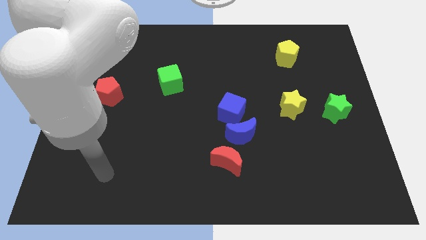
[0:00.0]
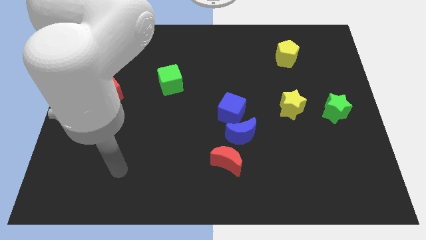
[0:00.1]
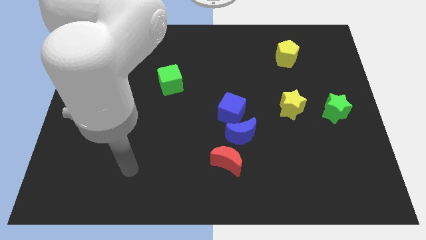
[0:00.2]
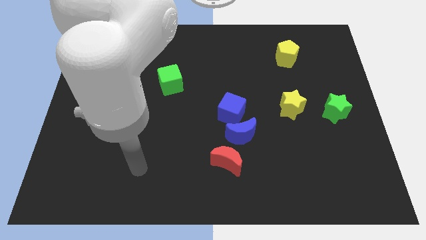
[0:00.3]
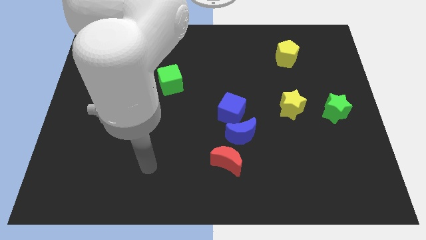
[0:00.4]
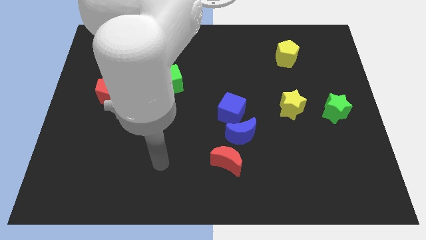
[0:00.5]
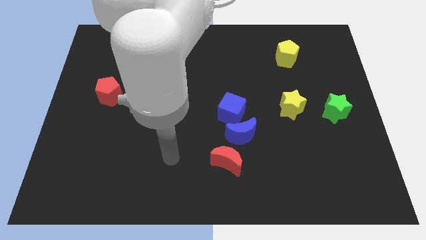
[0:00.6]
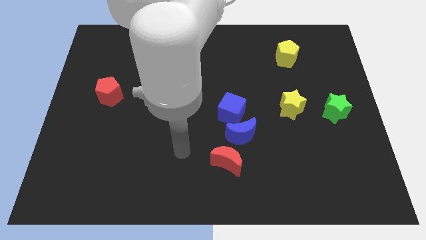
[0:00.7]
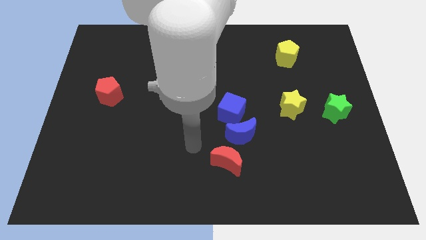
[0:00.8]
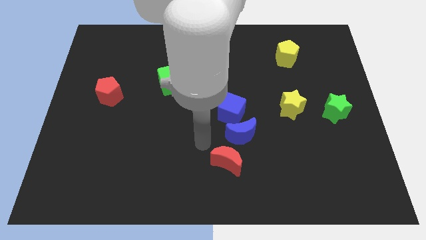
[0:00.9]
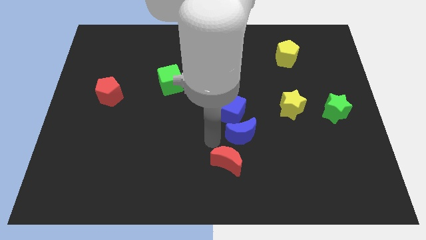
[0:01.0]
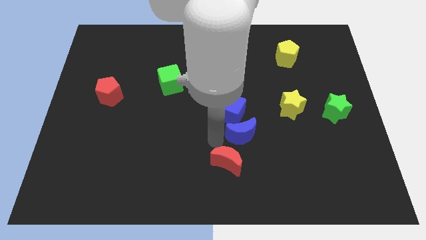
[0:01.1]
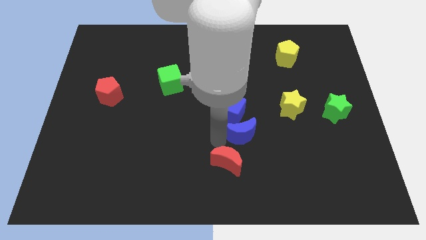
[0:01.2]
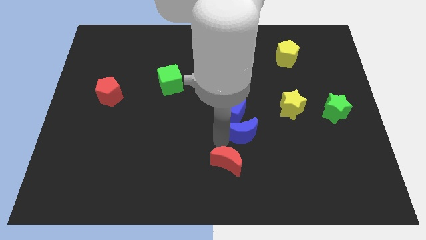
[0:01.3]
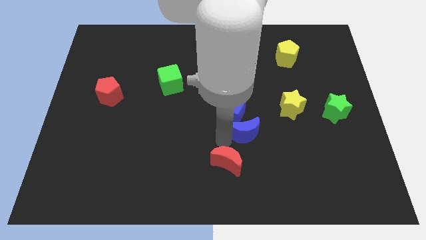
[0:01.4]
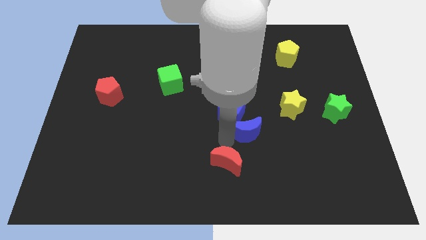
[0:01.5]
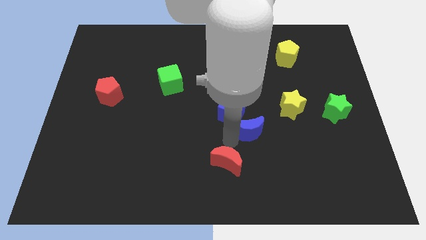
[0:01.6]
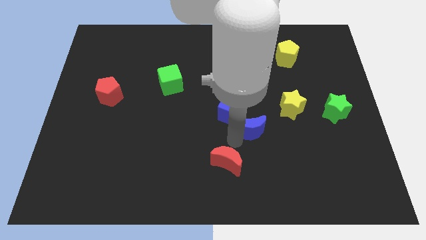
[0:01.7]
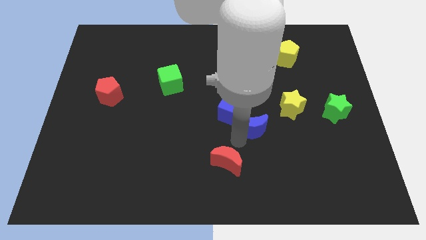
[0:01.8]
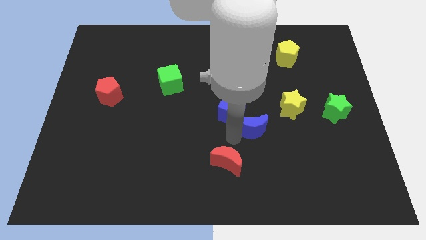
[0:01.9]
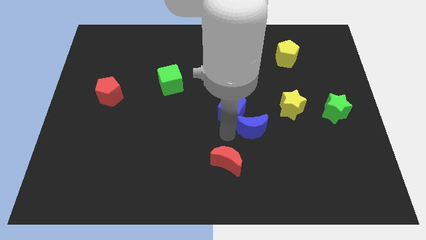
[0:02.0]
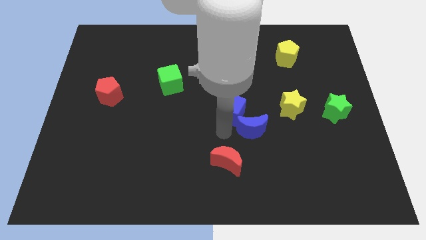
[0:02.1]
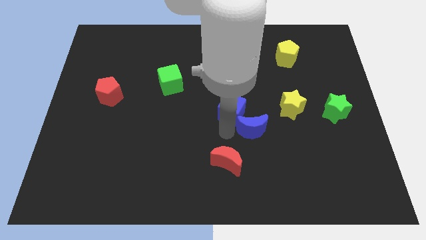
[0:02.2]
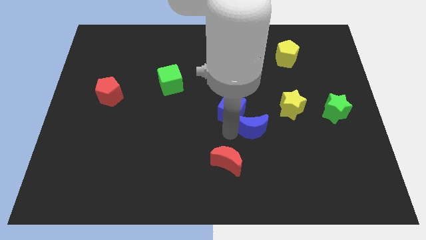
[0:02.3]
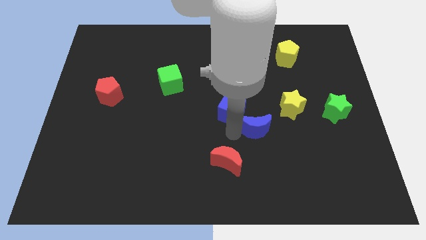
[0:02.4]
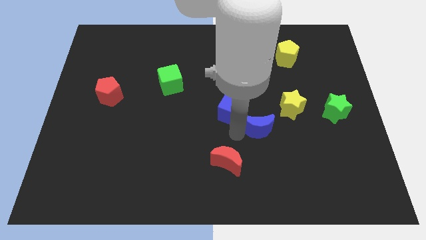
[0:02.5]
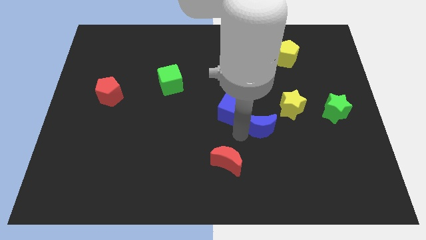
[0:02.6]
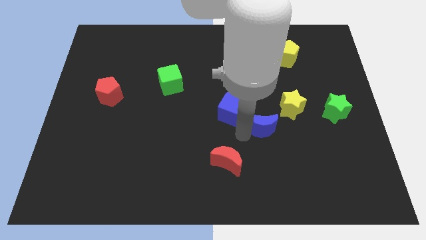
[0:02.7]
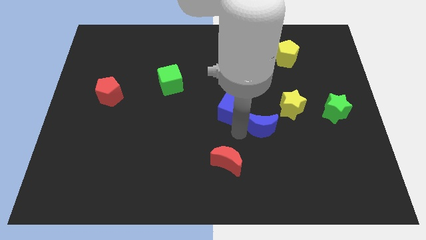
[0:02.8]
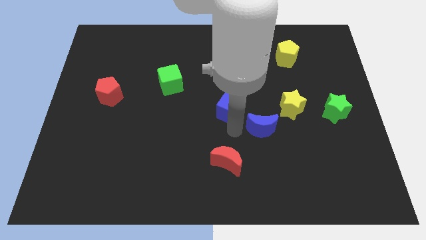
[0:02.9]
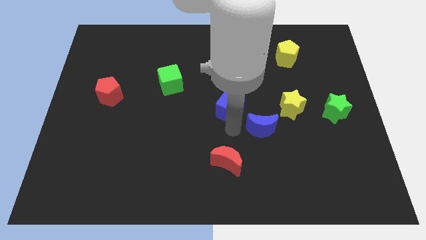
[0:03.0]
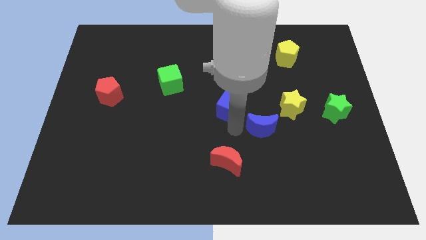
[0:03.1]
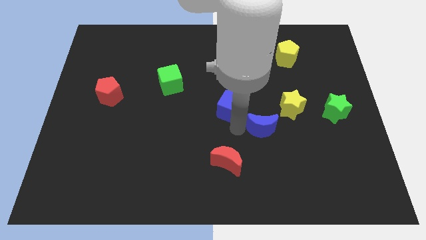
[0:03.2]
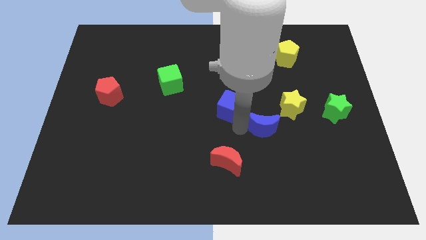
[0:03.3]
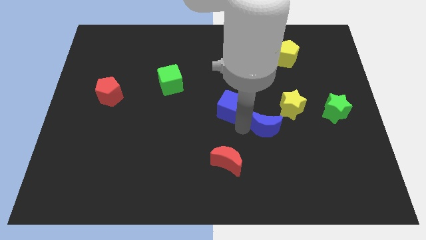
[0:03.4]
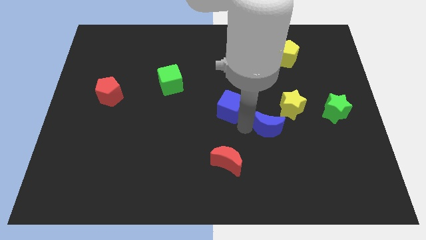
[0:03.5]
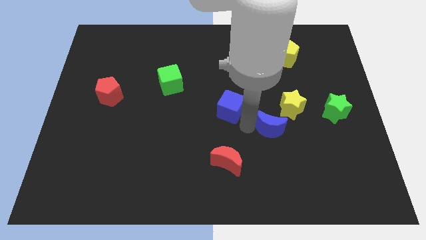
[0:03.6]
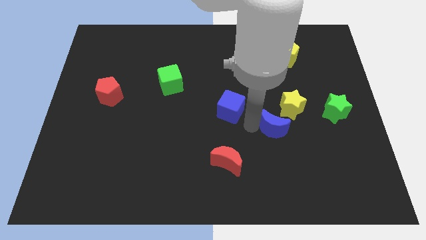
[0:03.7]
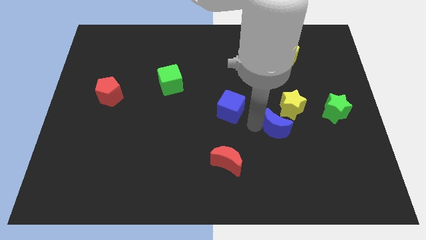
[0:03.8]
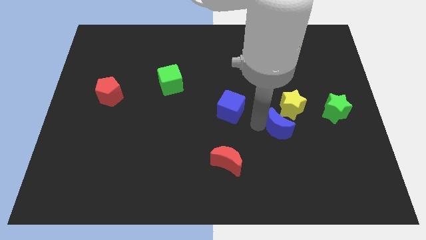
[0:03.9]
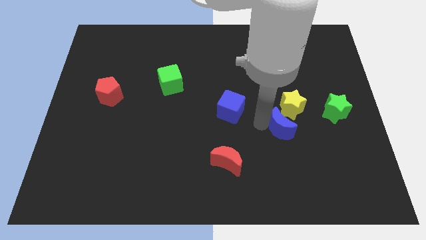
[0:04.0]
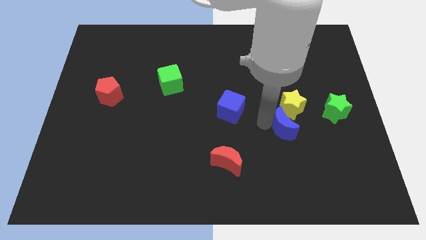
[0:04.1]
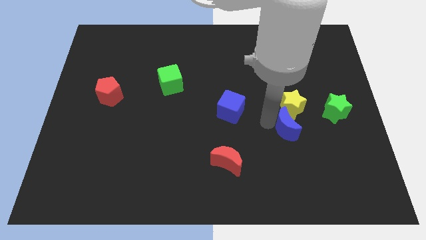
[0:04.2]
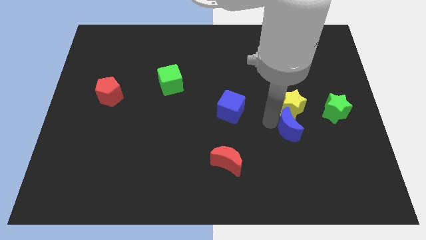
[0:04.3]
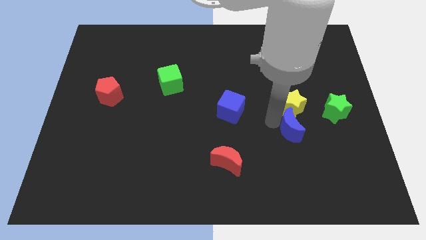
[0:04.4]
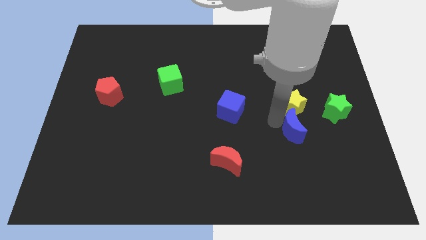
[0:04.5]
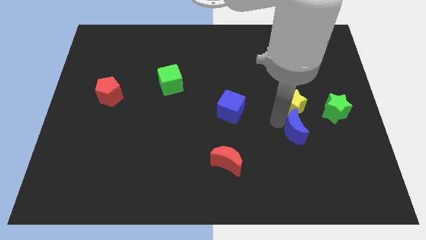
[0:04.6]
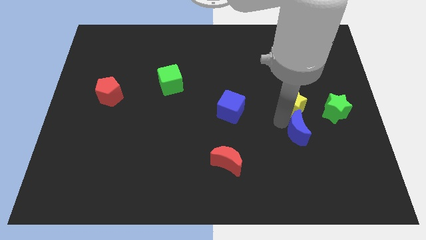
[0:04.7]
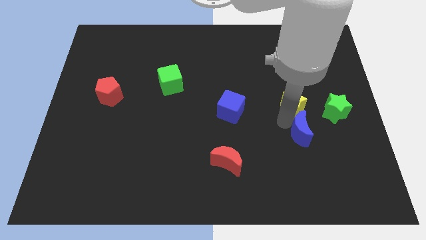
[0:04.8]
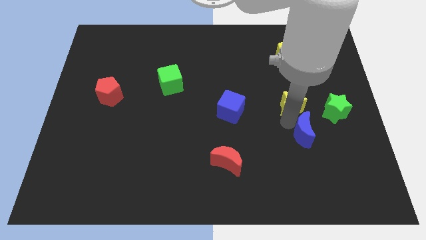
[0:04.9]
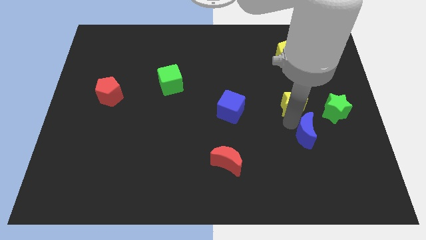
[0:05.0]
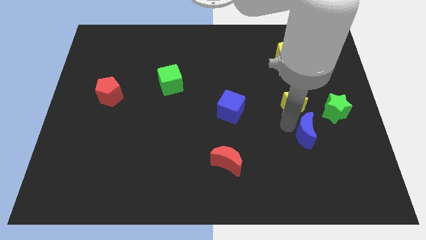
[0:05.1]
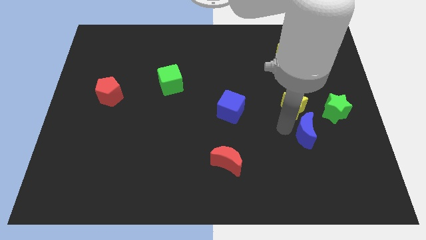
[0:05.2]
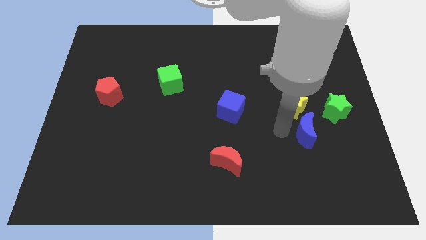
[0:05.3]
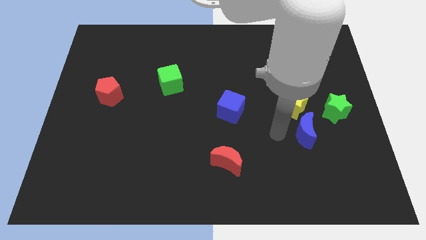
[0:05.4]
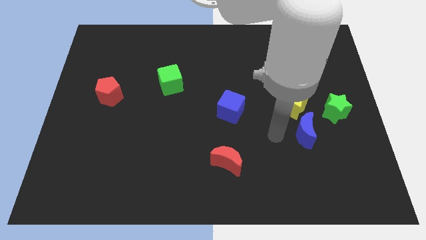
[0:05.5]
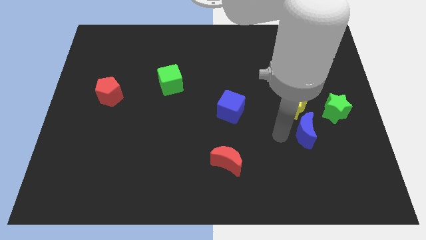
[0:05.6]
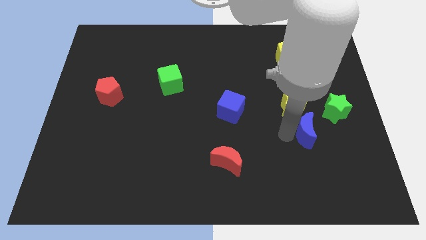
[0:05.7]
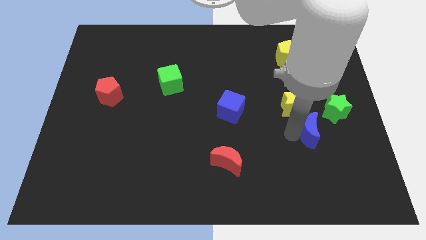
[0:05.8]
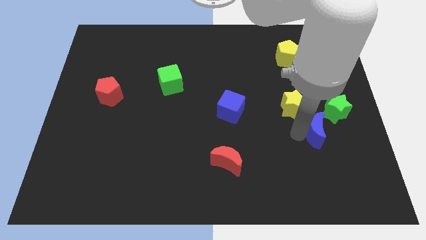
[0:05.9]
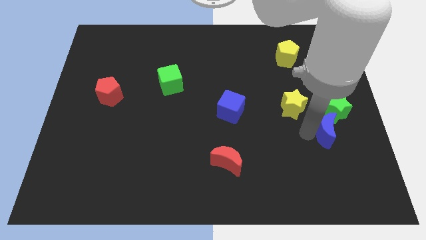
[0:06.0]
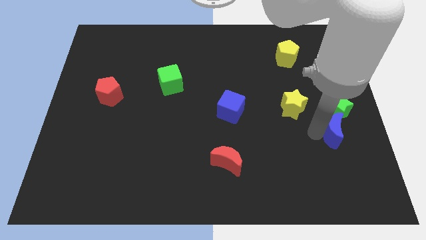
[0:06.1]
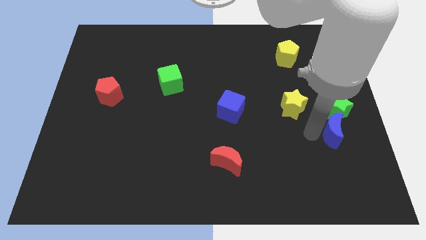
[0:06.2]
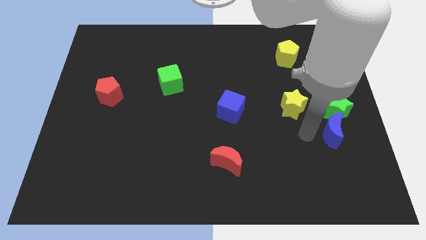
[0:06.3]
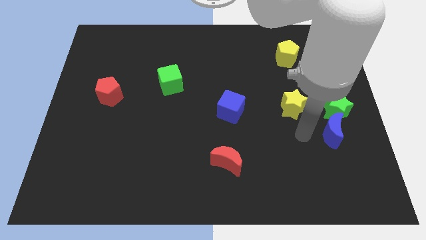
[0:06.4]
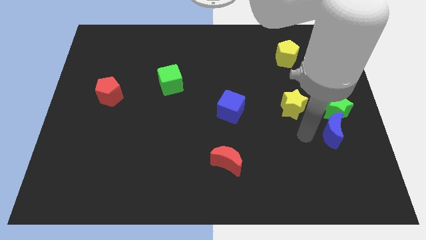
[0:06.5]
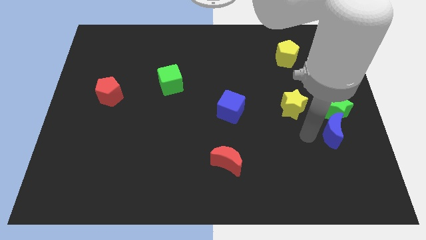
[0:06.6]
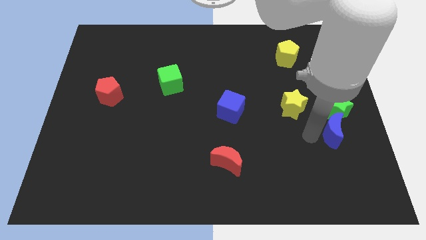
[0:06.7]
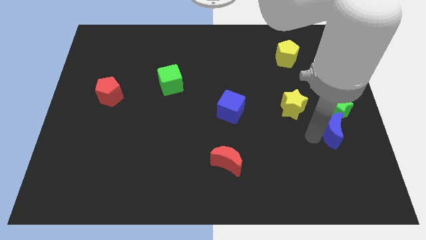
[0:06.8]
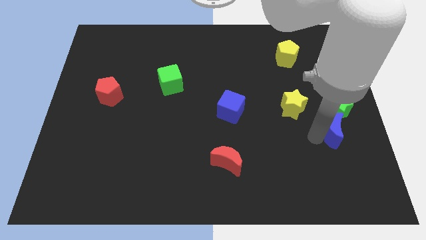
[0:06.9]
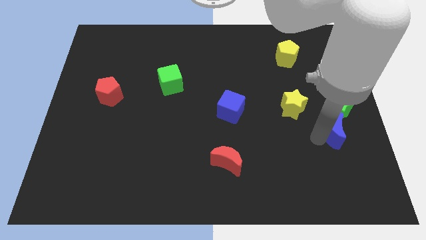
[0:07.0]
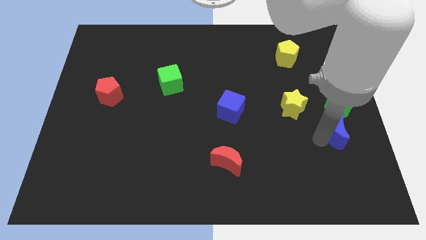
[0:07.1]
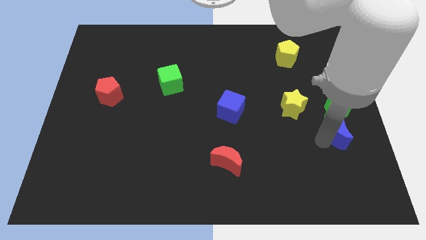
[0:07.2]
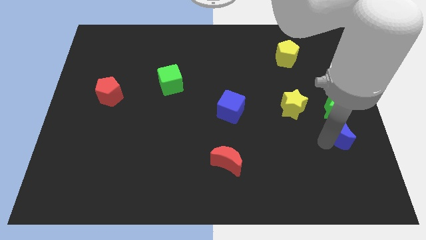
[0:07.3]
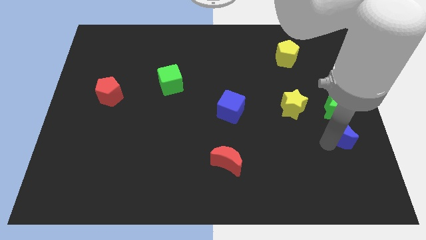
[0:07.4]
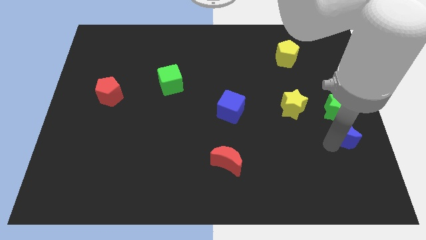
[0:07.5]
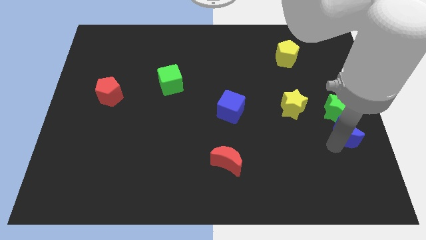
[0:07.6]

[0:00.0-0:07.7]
put the blue moon to the right side of the board

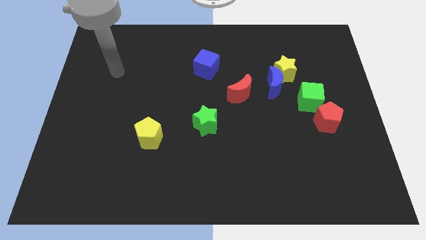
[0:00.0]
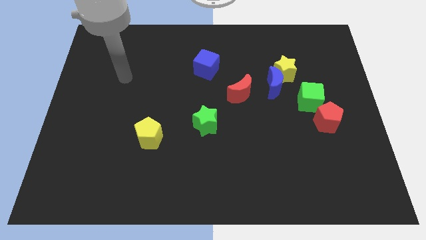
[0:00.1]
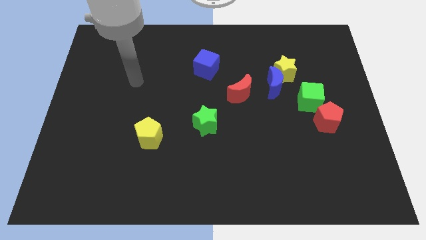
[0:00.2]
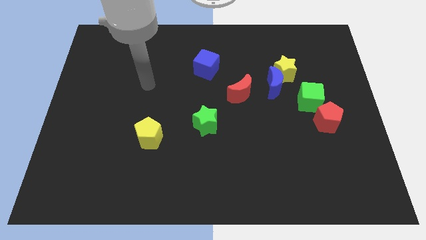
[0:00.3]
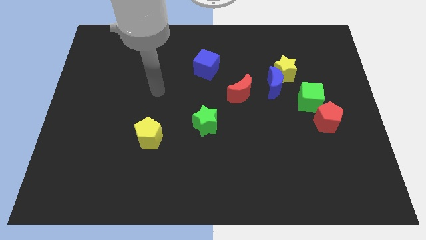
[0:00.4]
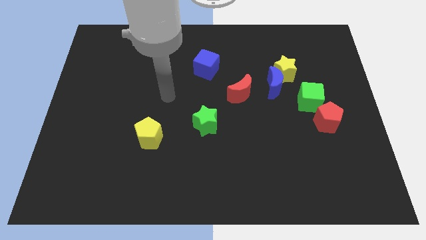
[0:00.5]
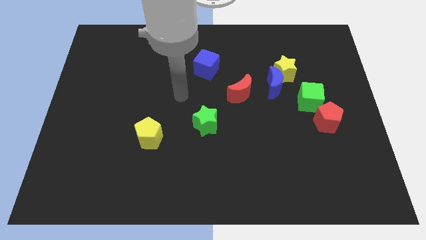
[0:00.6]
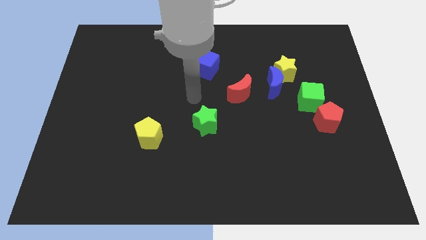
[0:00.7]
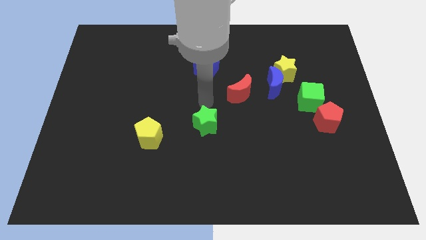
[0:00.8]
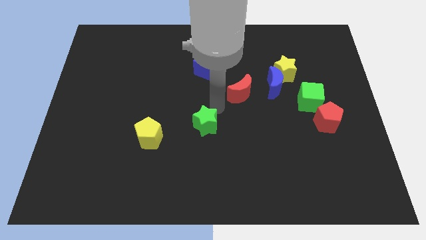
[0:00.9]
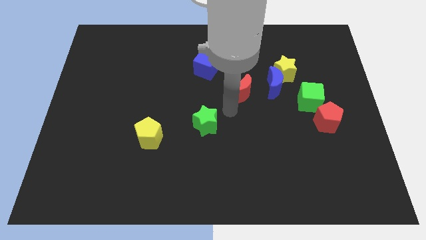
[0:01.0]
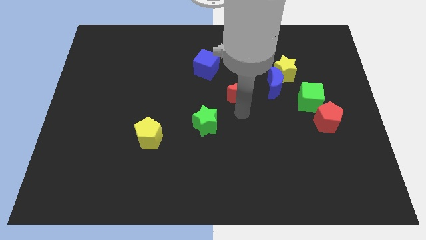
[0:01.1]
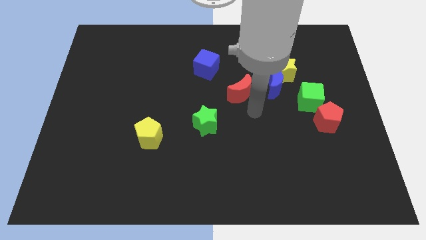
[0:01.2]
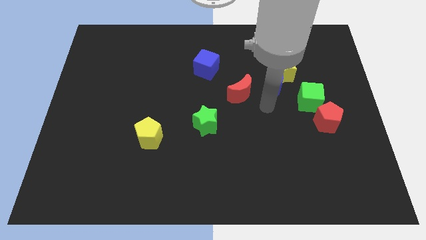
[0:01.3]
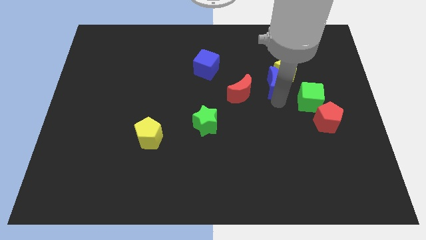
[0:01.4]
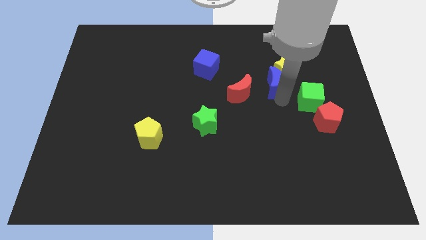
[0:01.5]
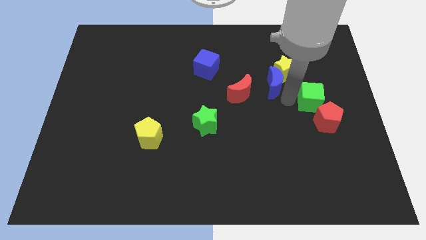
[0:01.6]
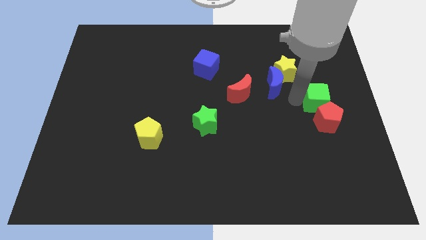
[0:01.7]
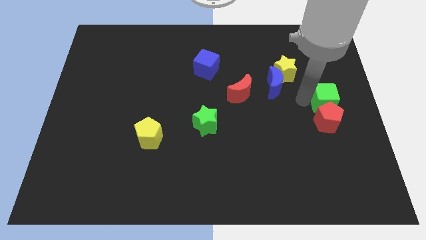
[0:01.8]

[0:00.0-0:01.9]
move the green cube to the center right
